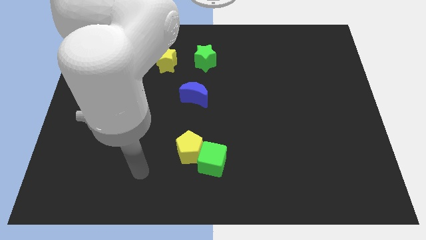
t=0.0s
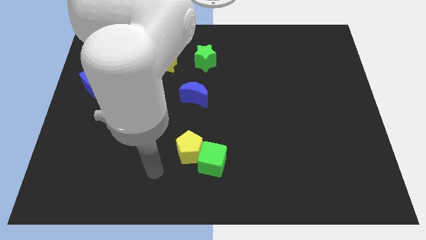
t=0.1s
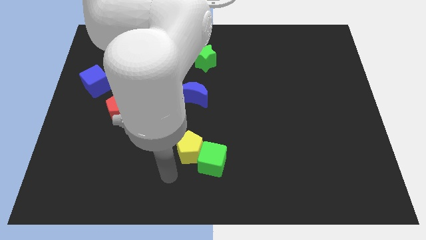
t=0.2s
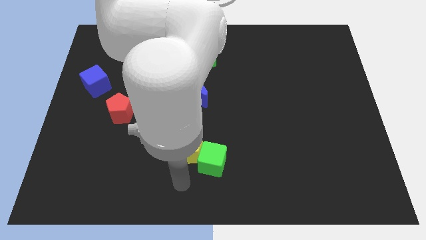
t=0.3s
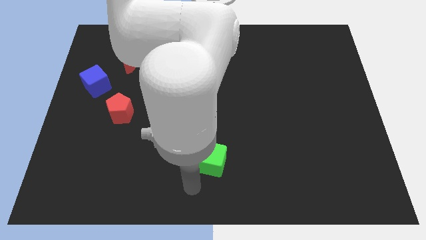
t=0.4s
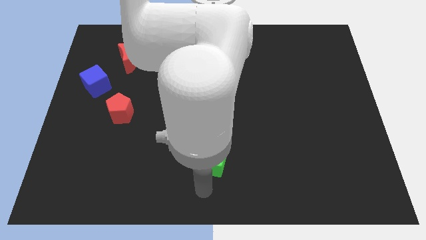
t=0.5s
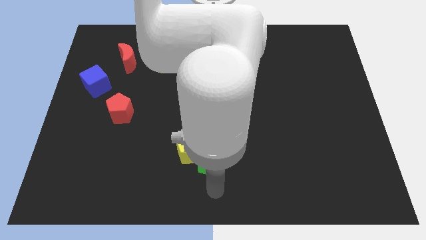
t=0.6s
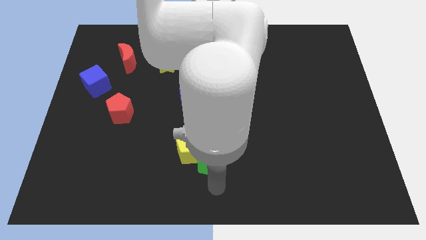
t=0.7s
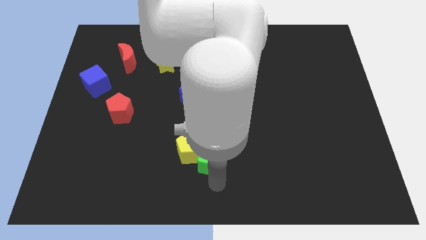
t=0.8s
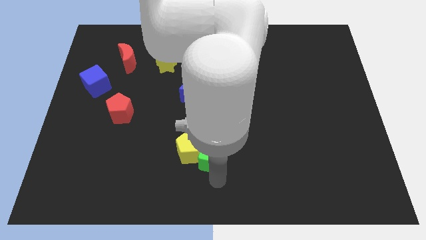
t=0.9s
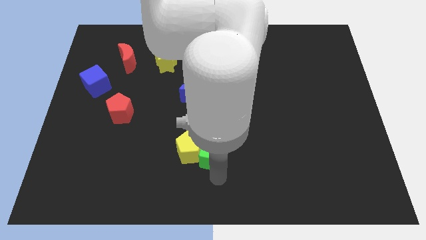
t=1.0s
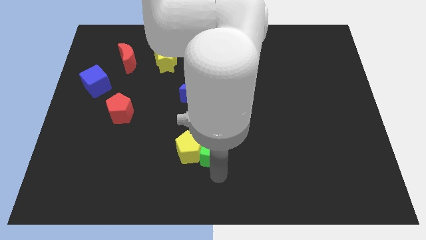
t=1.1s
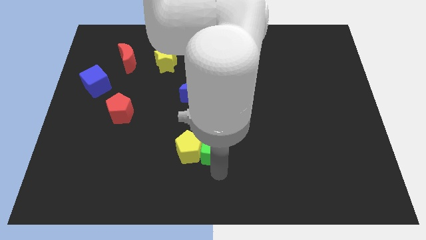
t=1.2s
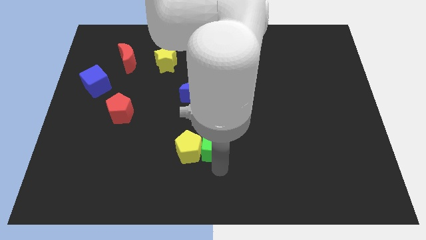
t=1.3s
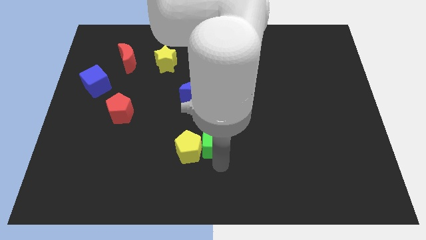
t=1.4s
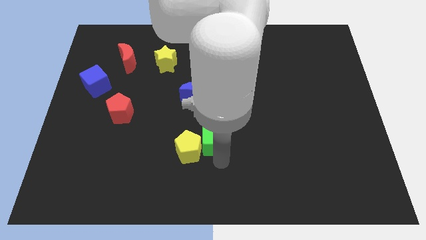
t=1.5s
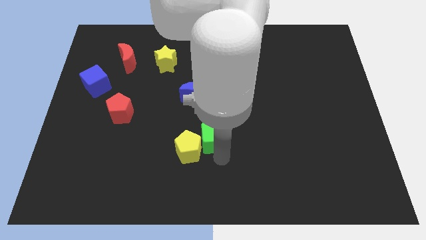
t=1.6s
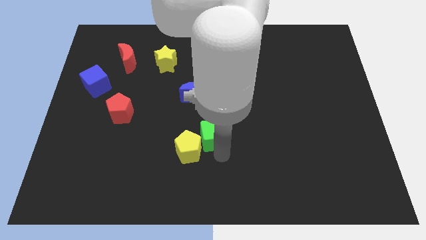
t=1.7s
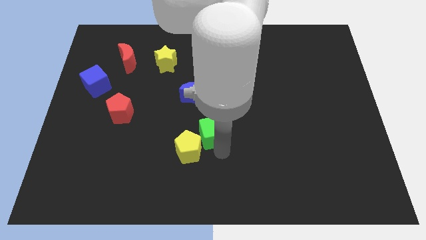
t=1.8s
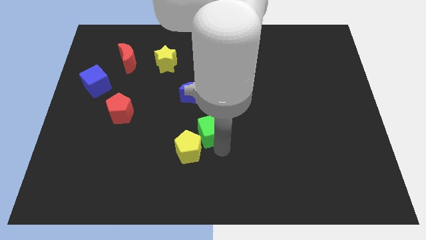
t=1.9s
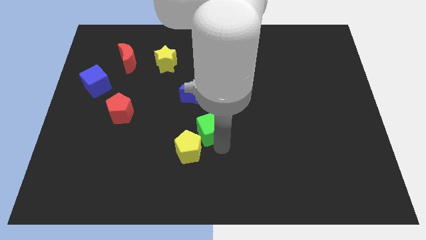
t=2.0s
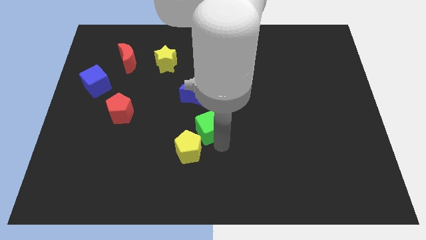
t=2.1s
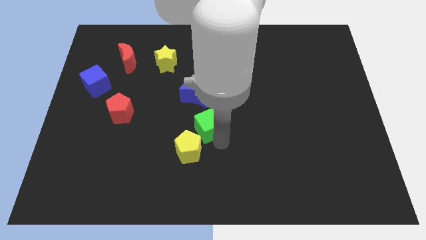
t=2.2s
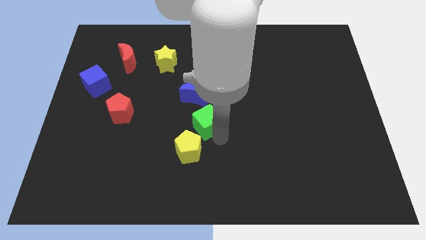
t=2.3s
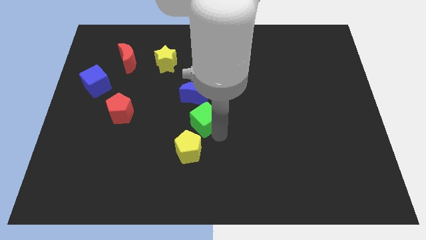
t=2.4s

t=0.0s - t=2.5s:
push the green cube up and left diagonally a bit

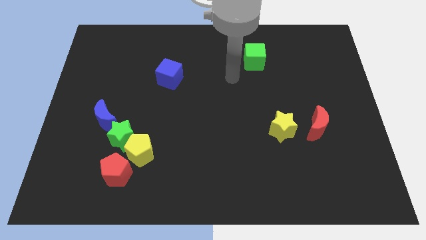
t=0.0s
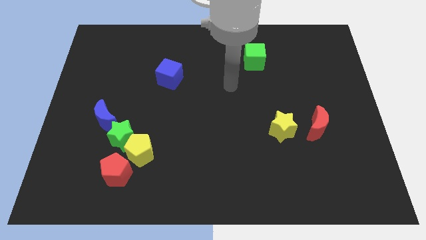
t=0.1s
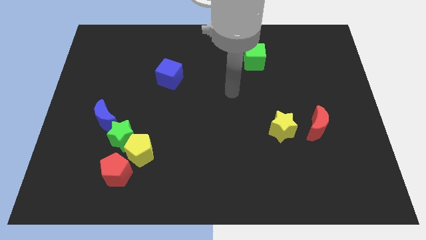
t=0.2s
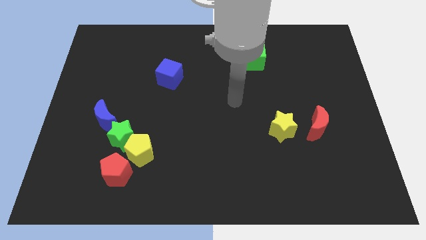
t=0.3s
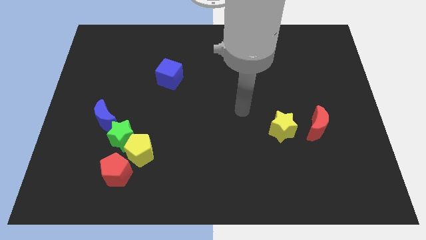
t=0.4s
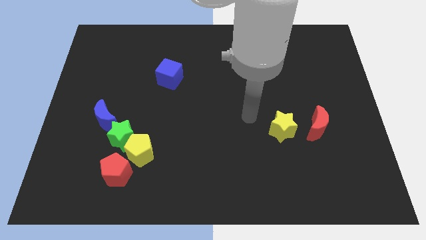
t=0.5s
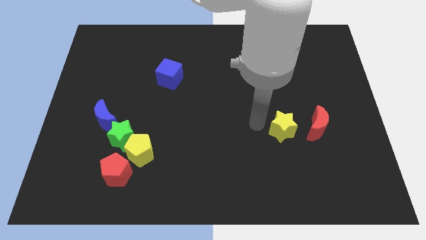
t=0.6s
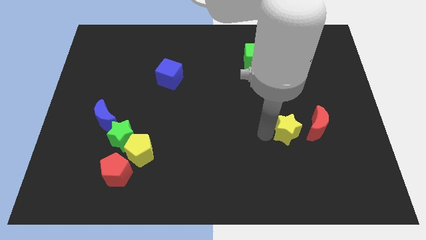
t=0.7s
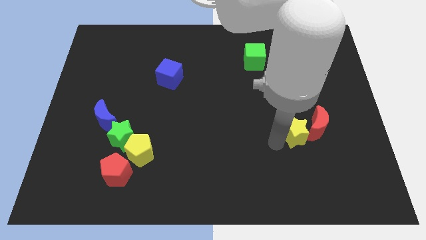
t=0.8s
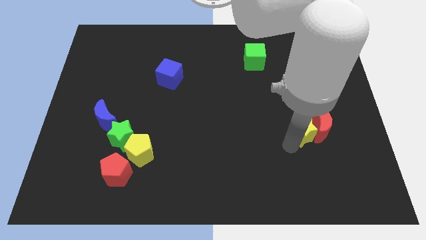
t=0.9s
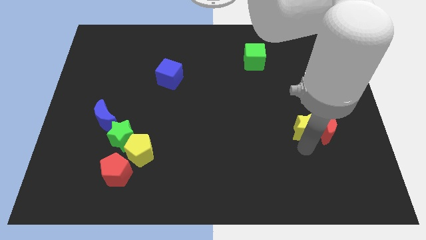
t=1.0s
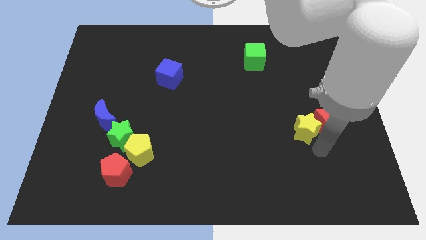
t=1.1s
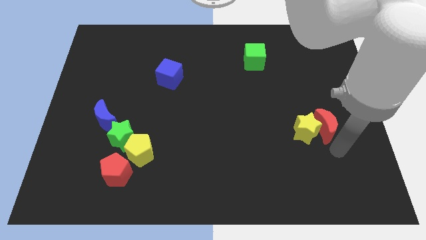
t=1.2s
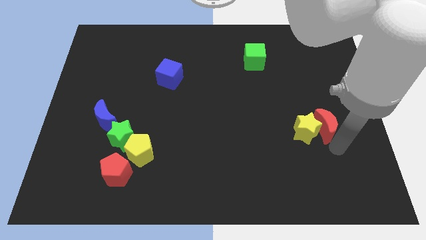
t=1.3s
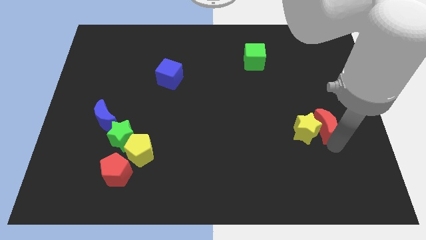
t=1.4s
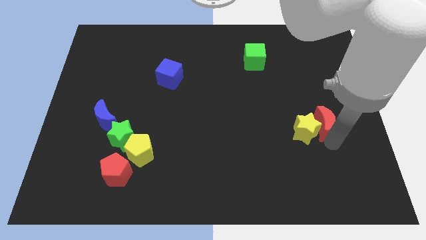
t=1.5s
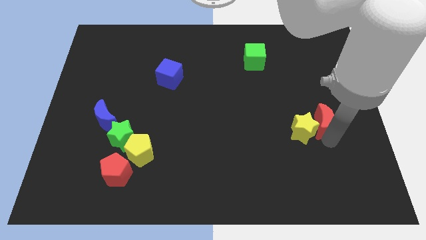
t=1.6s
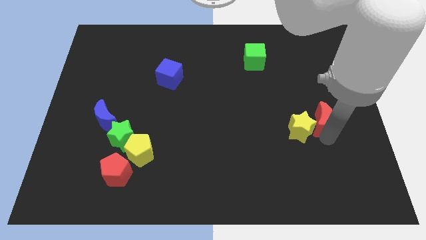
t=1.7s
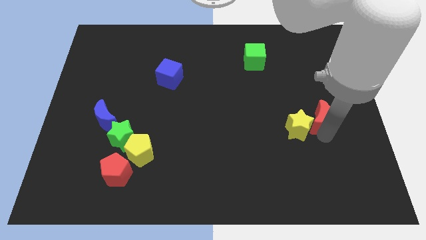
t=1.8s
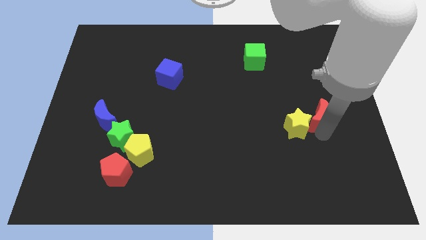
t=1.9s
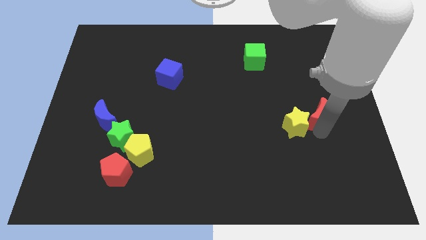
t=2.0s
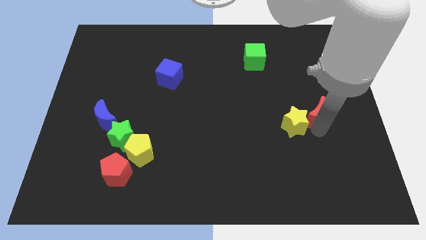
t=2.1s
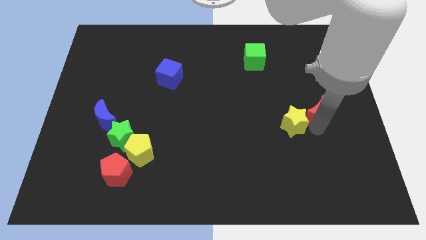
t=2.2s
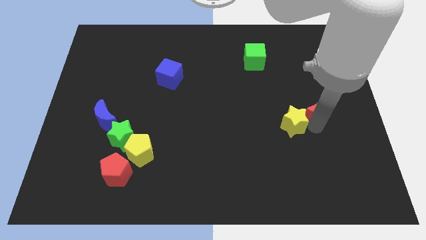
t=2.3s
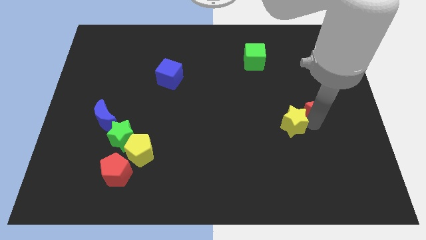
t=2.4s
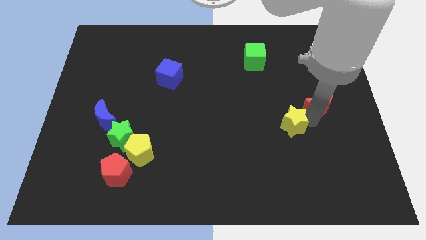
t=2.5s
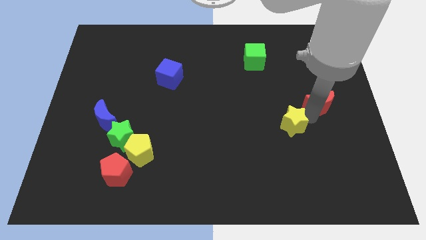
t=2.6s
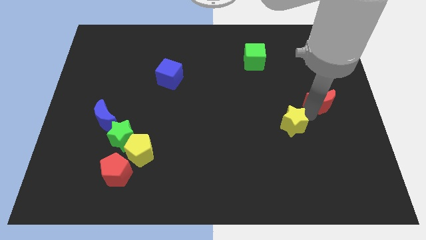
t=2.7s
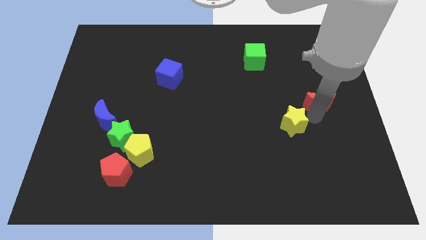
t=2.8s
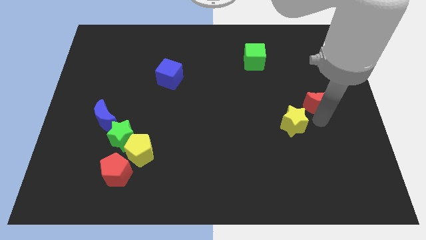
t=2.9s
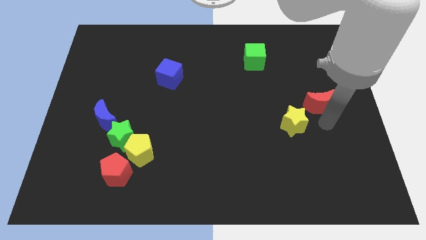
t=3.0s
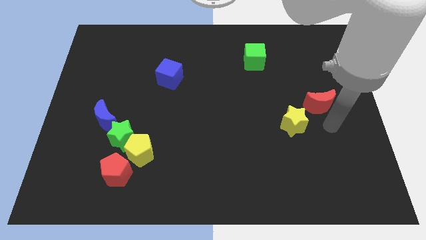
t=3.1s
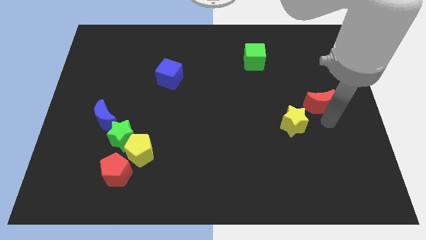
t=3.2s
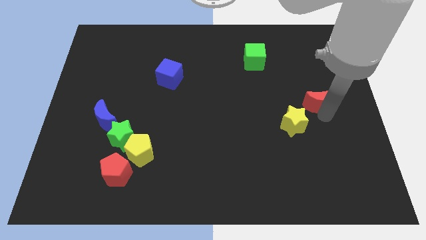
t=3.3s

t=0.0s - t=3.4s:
slightly push the red moon up

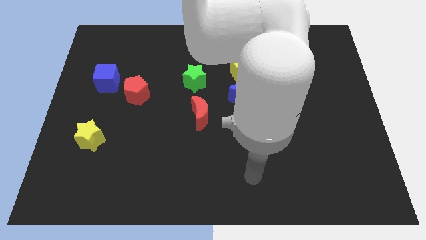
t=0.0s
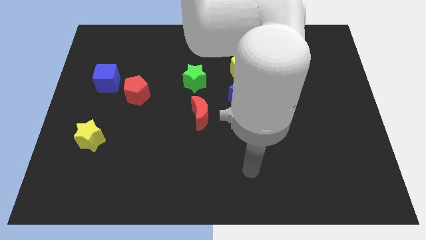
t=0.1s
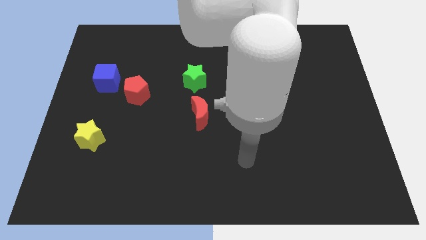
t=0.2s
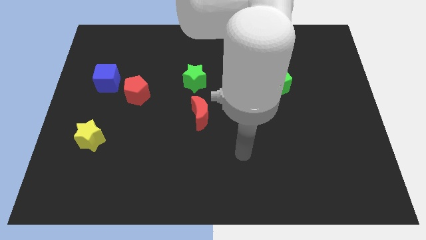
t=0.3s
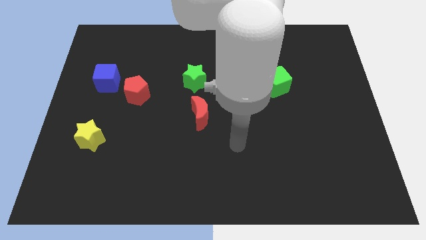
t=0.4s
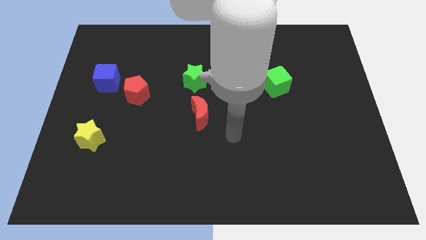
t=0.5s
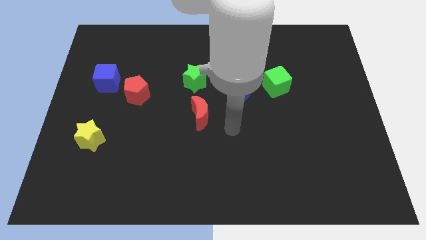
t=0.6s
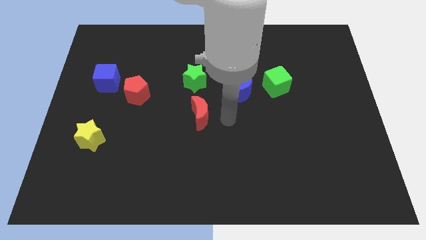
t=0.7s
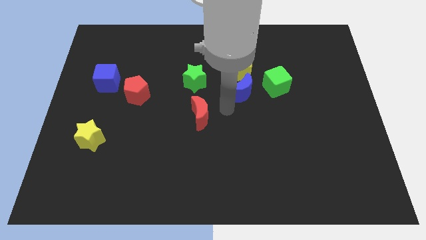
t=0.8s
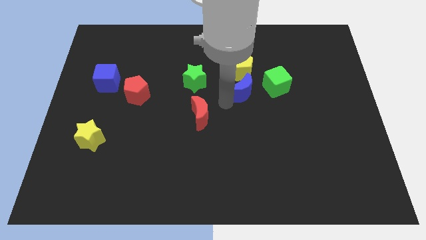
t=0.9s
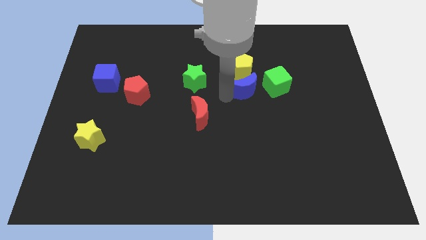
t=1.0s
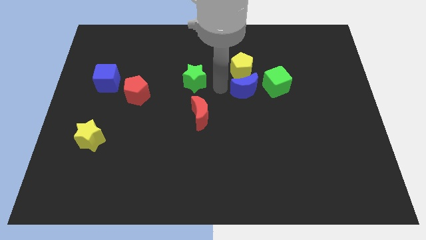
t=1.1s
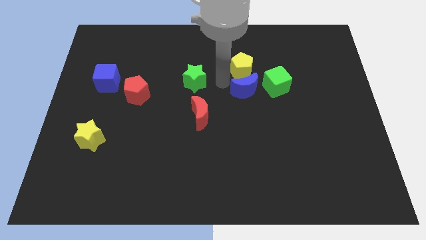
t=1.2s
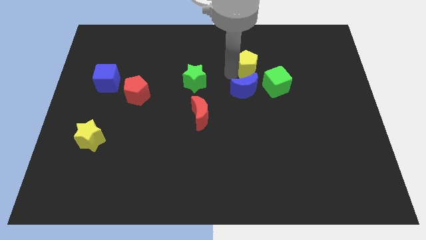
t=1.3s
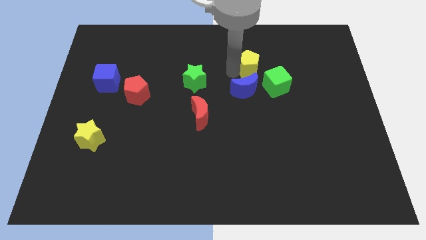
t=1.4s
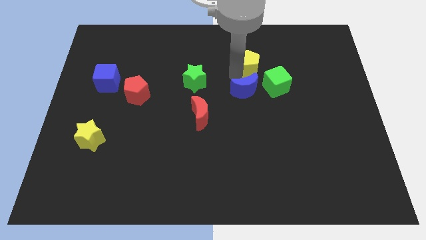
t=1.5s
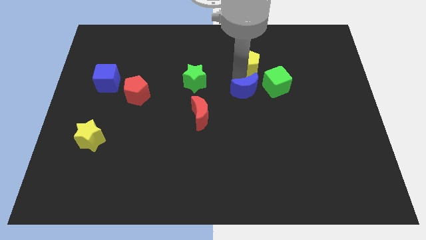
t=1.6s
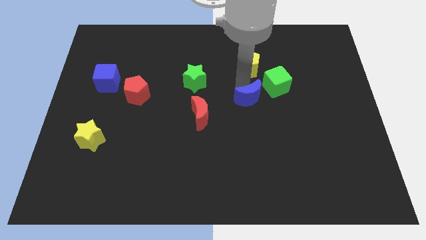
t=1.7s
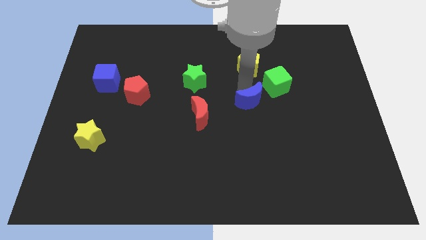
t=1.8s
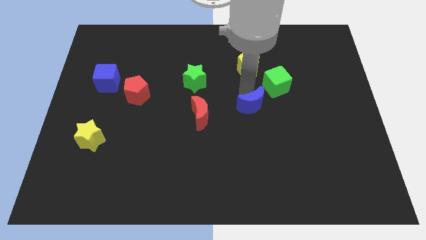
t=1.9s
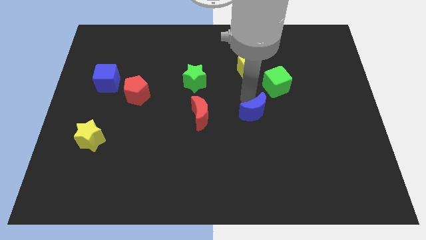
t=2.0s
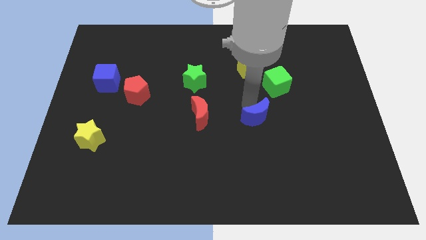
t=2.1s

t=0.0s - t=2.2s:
slightly move the blue moon diagonally downwards and to the right
